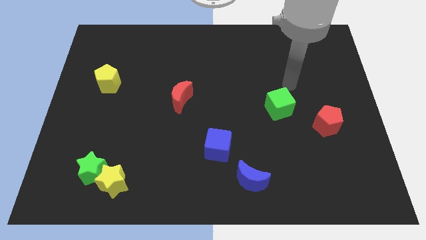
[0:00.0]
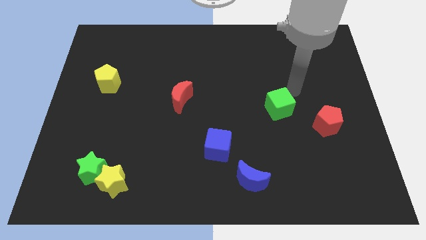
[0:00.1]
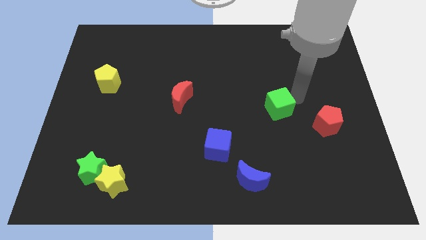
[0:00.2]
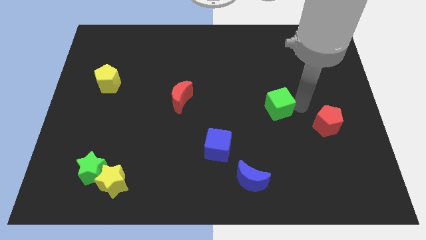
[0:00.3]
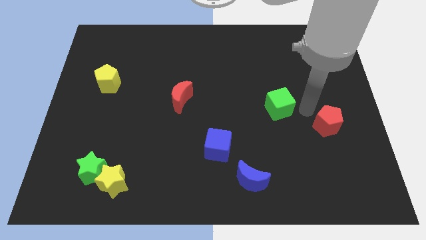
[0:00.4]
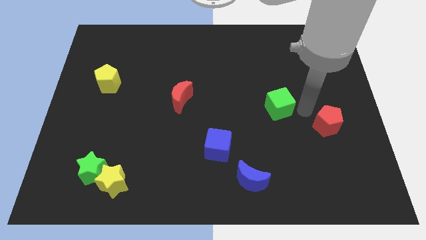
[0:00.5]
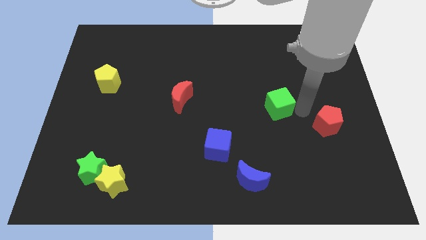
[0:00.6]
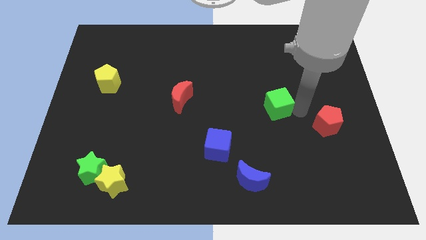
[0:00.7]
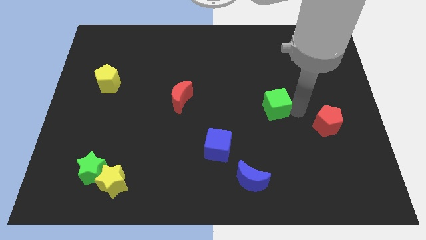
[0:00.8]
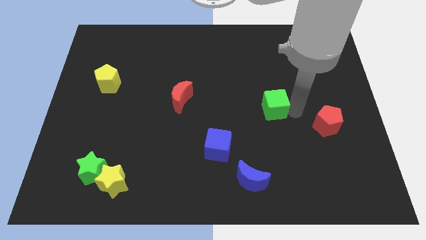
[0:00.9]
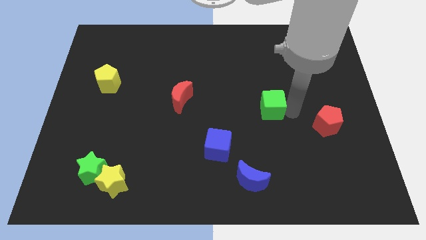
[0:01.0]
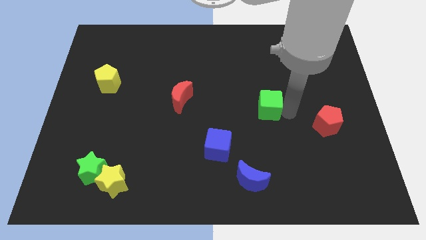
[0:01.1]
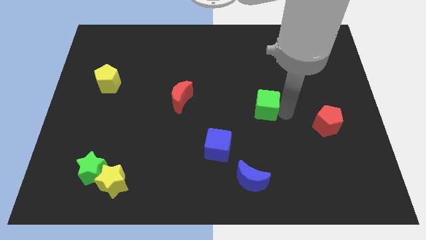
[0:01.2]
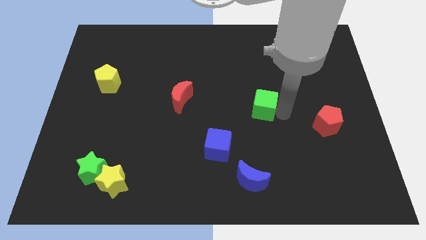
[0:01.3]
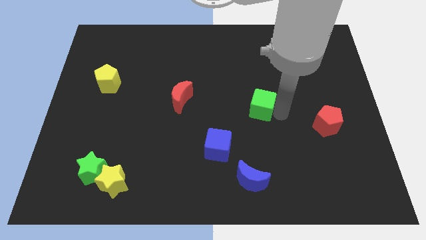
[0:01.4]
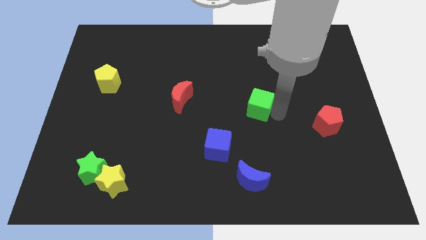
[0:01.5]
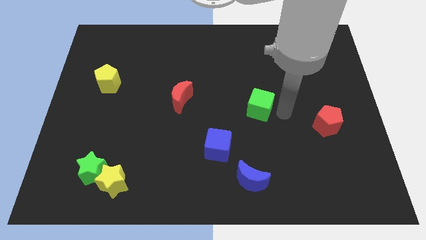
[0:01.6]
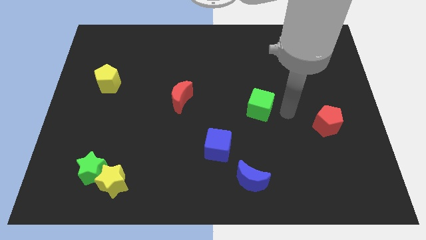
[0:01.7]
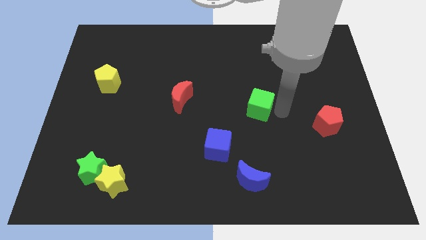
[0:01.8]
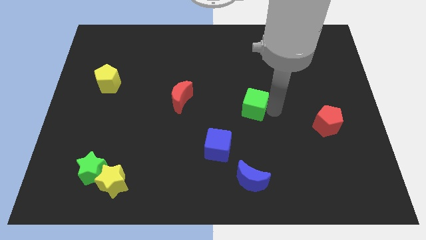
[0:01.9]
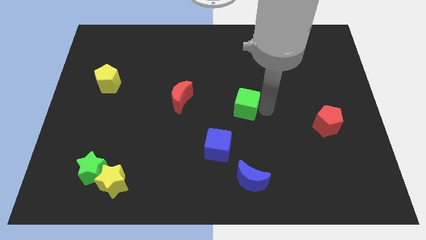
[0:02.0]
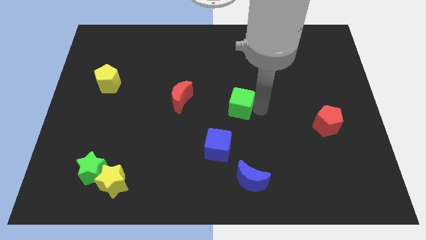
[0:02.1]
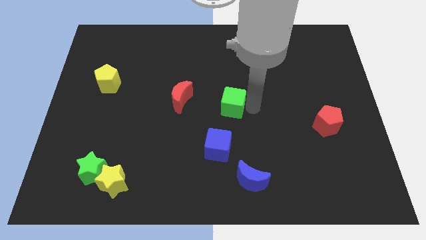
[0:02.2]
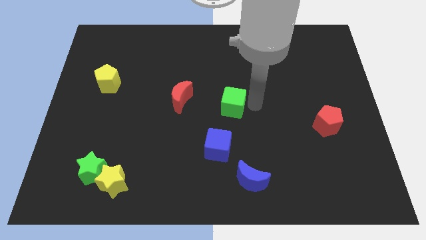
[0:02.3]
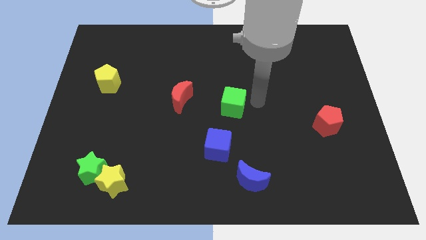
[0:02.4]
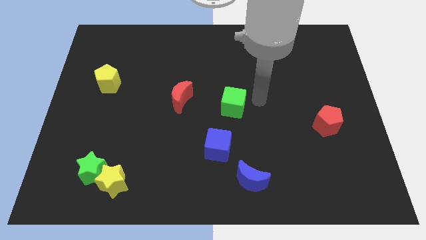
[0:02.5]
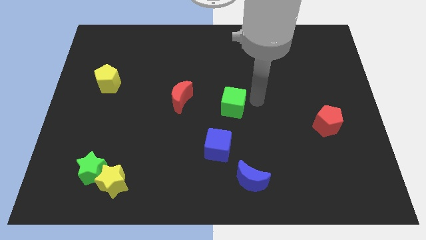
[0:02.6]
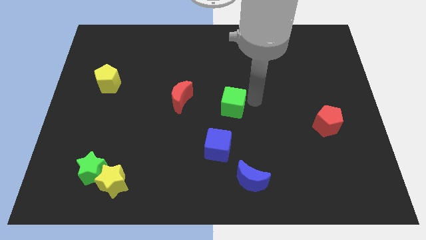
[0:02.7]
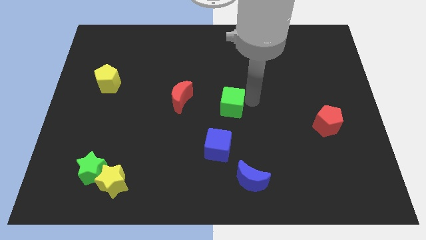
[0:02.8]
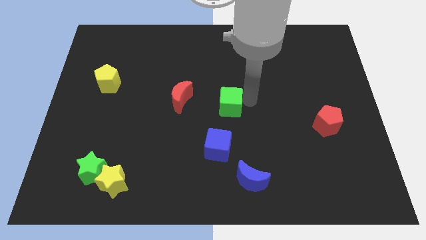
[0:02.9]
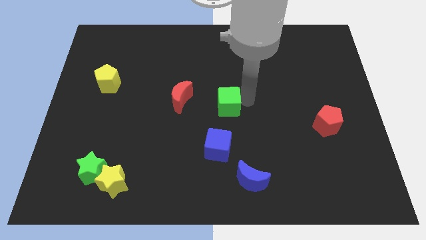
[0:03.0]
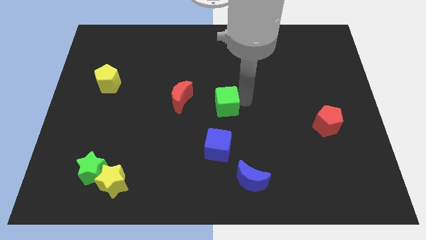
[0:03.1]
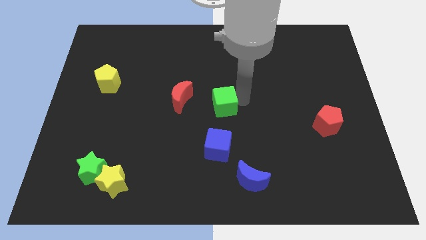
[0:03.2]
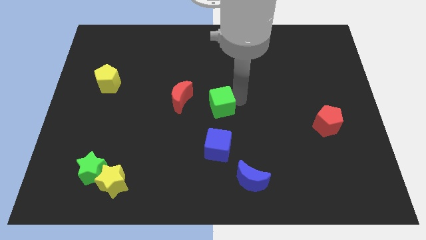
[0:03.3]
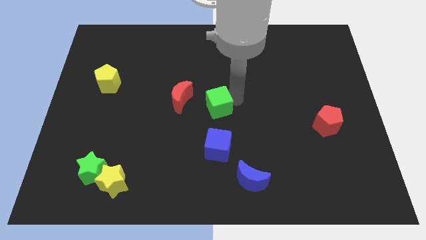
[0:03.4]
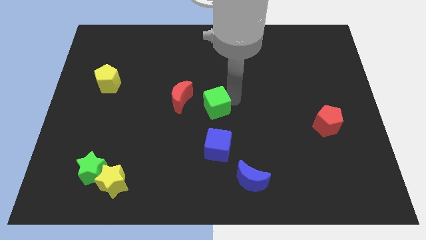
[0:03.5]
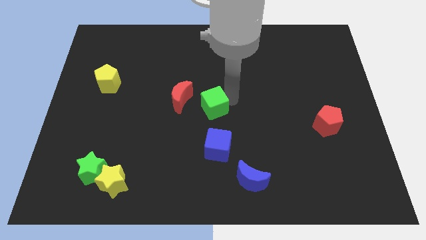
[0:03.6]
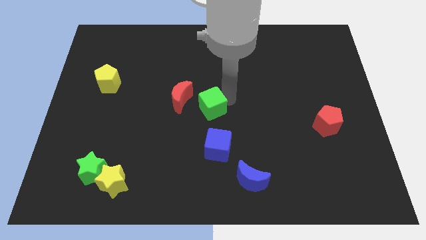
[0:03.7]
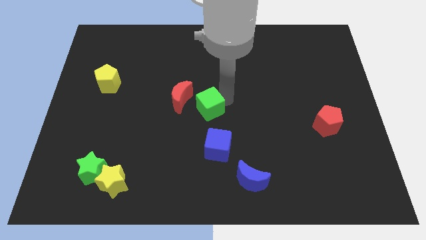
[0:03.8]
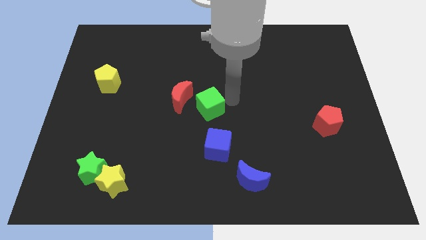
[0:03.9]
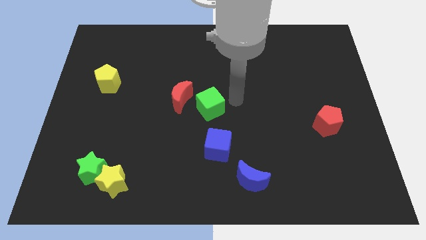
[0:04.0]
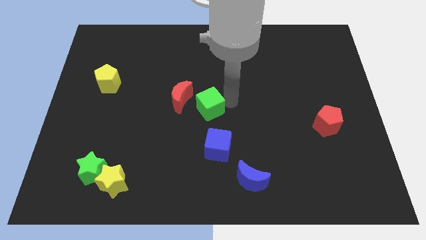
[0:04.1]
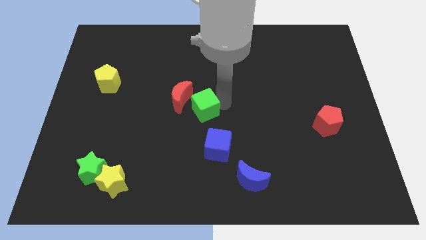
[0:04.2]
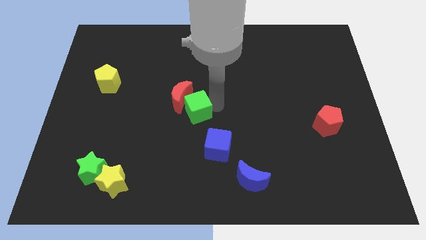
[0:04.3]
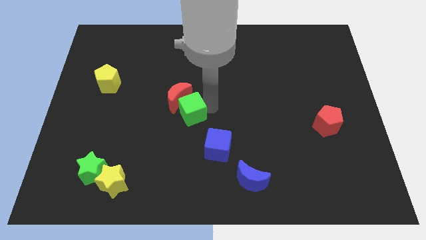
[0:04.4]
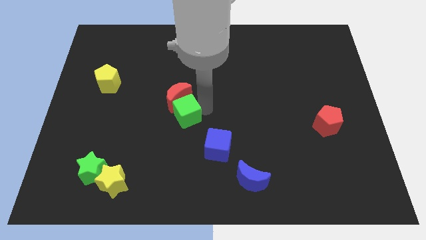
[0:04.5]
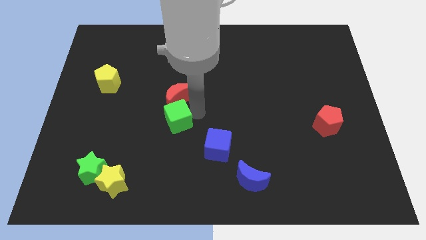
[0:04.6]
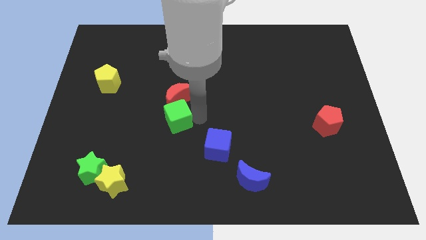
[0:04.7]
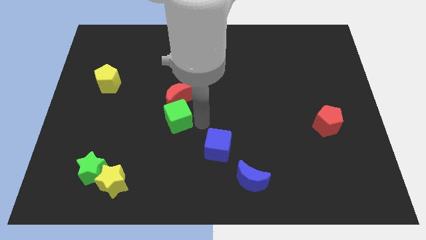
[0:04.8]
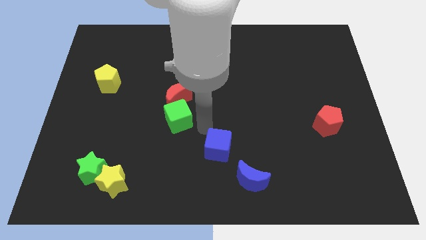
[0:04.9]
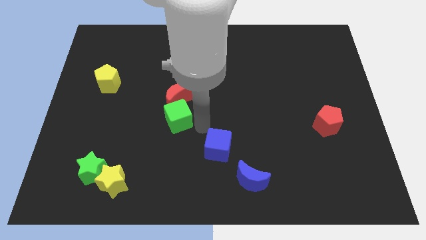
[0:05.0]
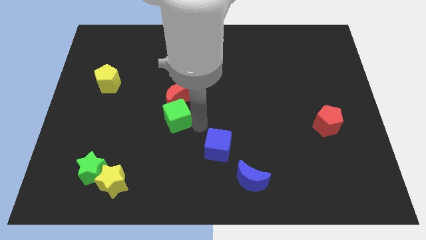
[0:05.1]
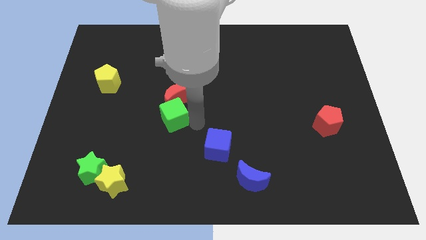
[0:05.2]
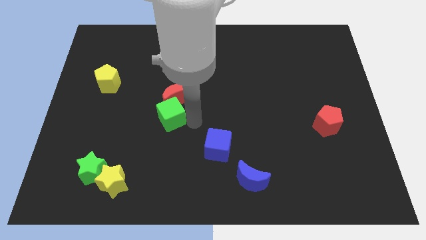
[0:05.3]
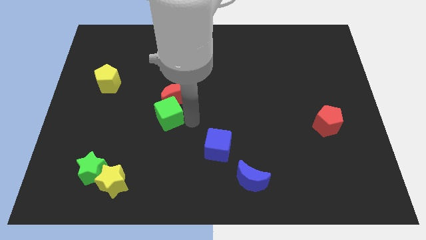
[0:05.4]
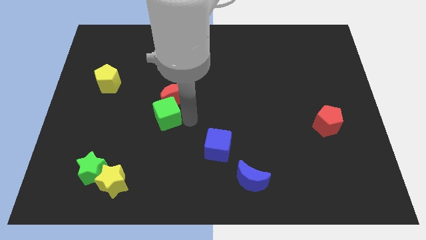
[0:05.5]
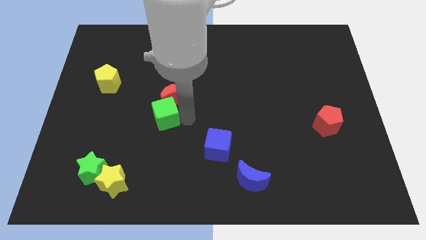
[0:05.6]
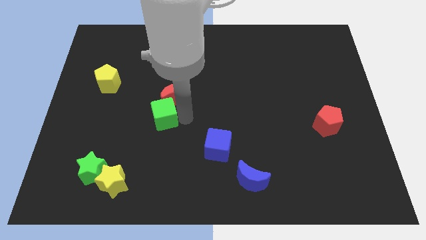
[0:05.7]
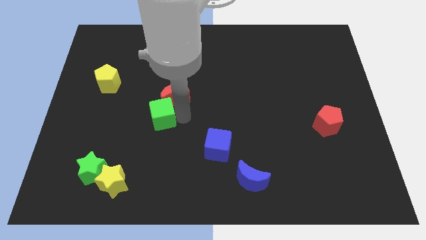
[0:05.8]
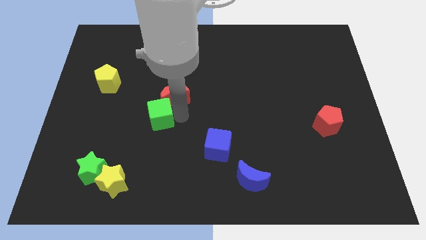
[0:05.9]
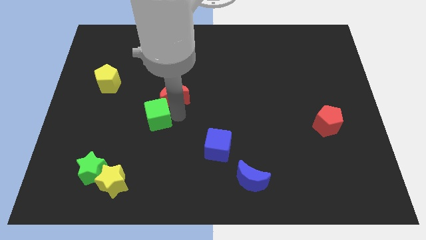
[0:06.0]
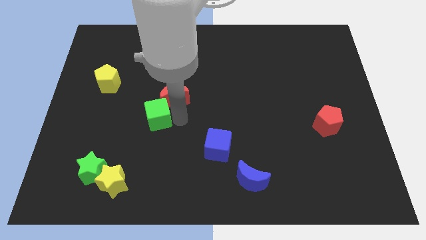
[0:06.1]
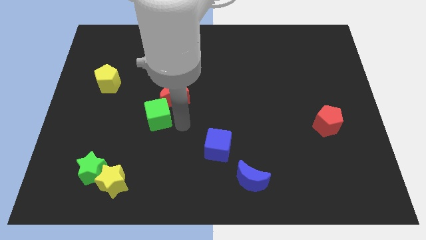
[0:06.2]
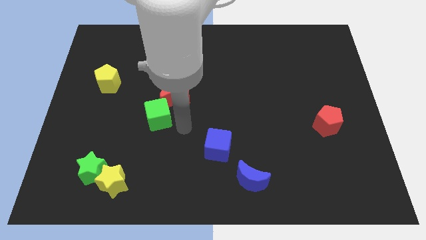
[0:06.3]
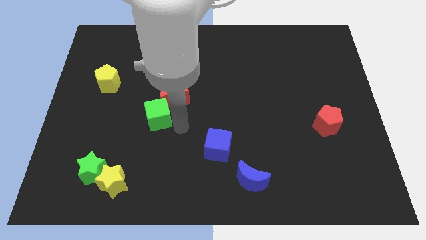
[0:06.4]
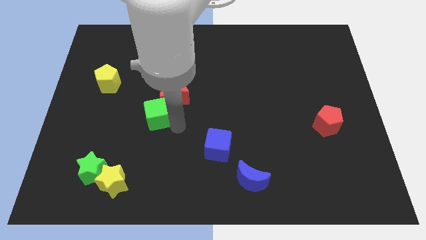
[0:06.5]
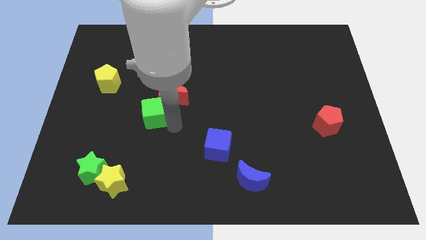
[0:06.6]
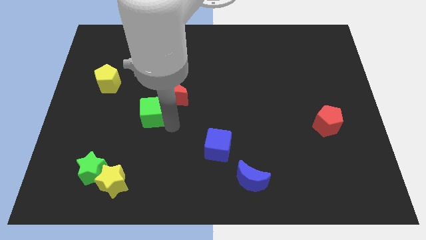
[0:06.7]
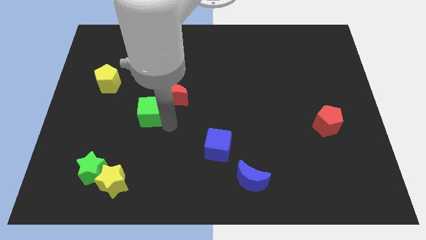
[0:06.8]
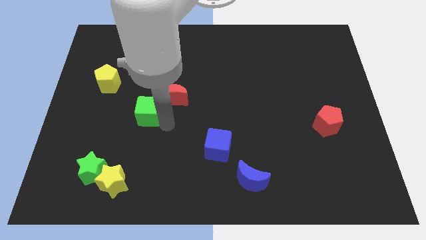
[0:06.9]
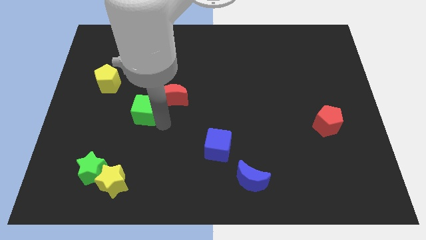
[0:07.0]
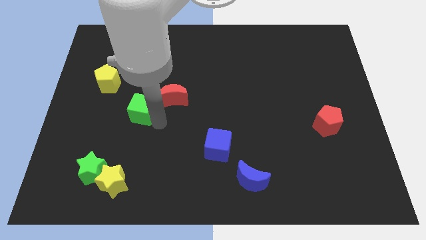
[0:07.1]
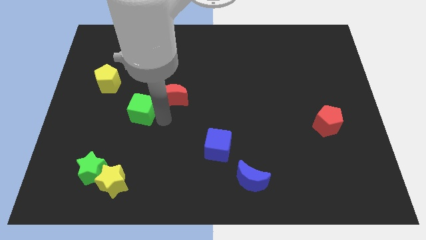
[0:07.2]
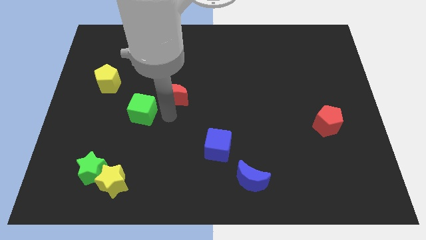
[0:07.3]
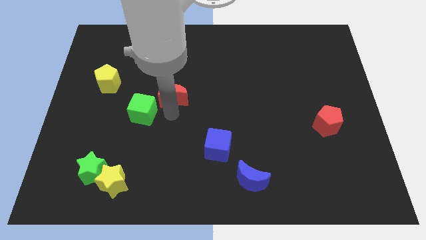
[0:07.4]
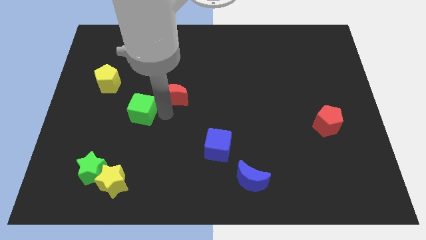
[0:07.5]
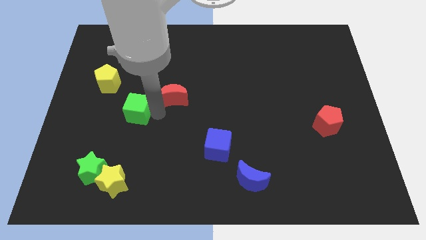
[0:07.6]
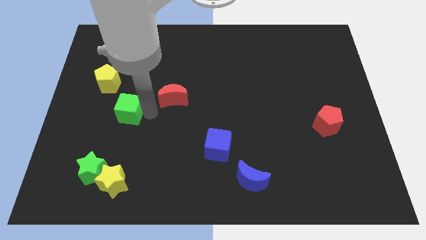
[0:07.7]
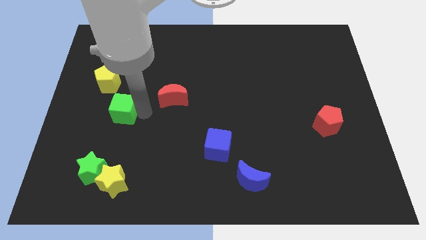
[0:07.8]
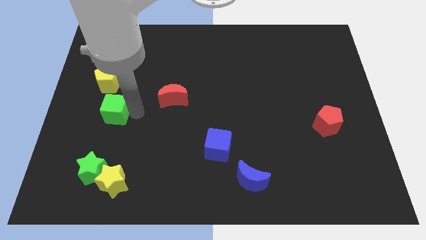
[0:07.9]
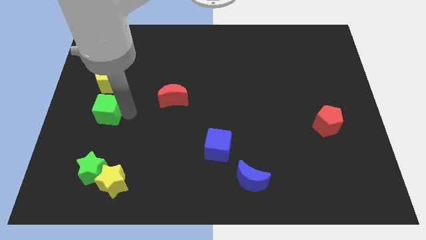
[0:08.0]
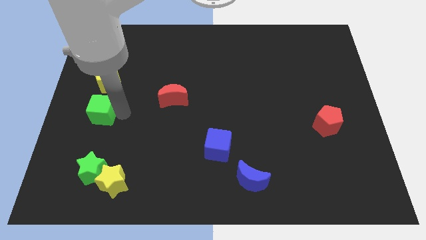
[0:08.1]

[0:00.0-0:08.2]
push the green cube to the left side
